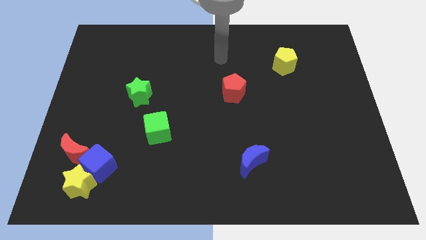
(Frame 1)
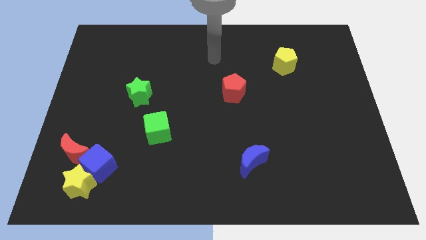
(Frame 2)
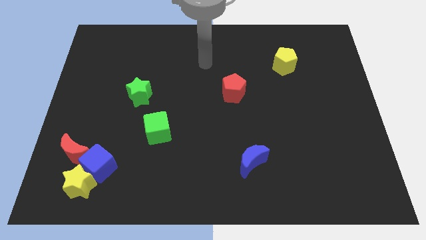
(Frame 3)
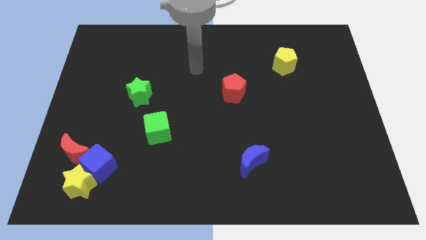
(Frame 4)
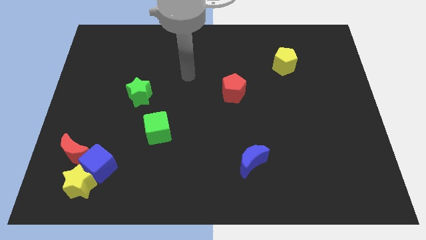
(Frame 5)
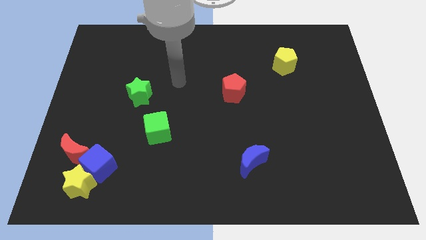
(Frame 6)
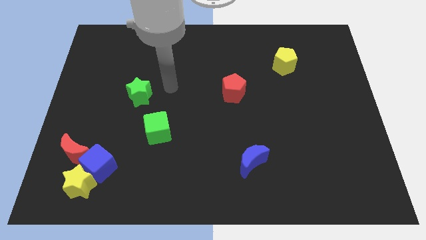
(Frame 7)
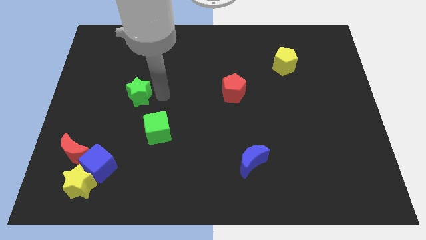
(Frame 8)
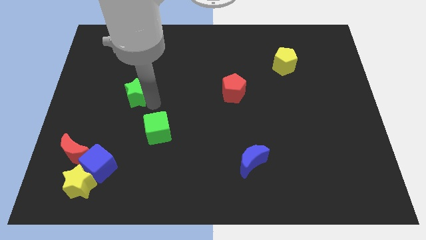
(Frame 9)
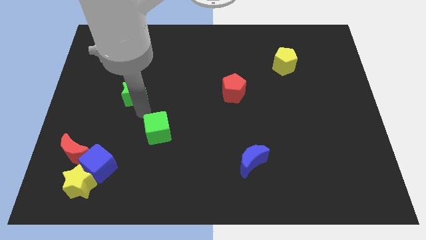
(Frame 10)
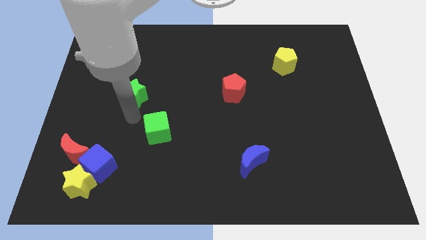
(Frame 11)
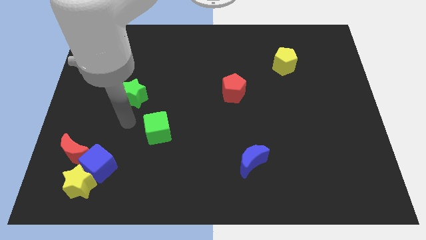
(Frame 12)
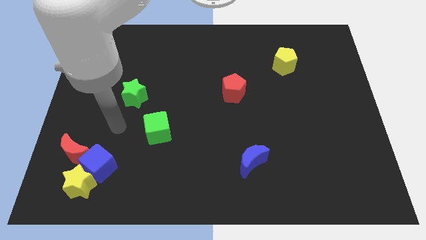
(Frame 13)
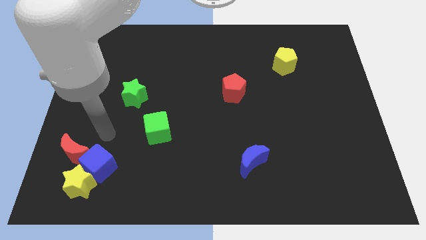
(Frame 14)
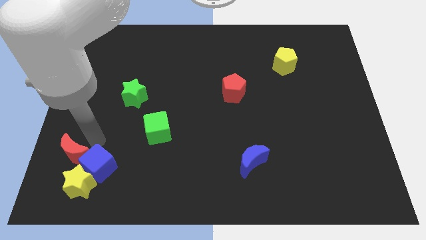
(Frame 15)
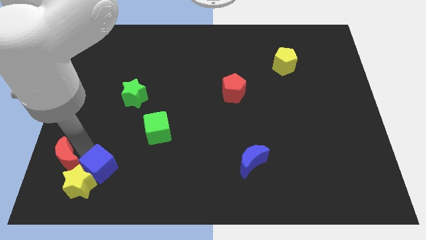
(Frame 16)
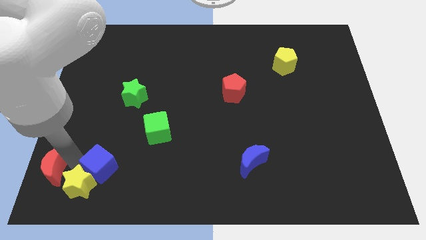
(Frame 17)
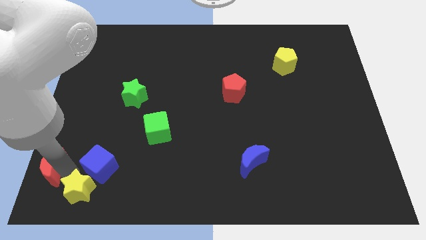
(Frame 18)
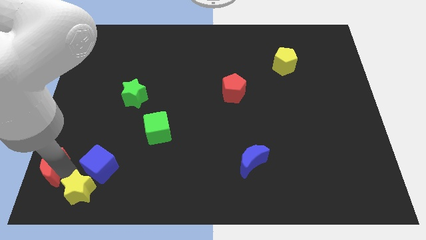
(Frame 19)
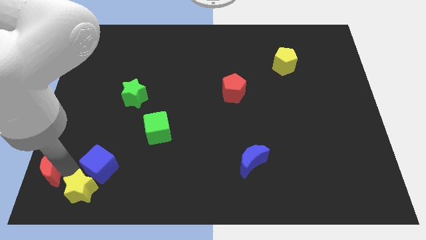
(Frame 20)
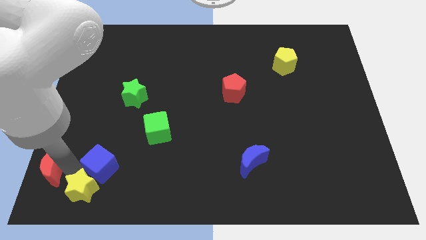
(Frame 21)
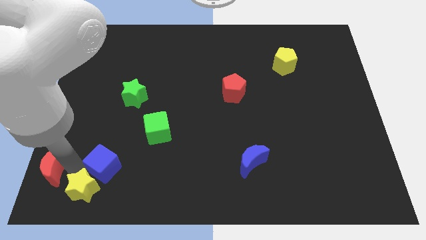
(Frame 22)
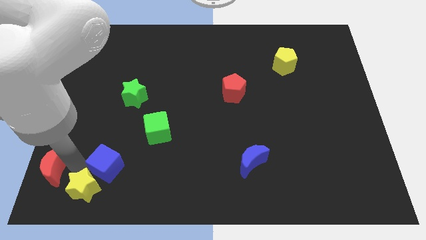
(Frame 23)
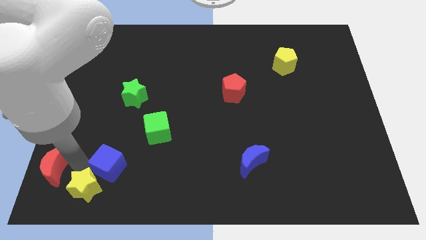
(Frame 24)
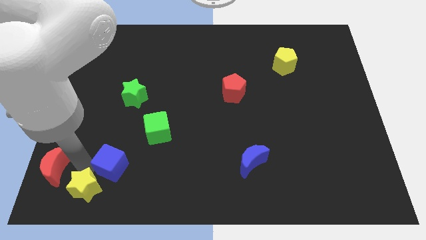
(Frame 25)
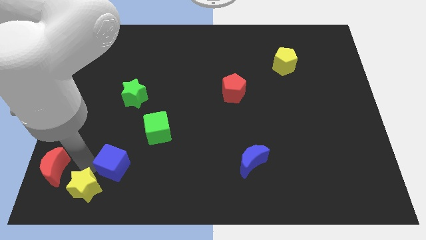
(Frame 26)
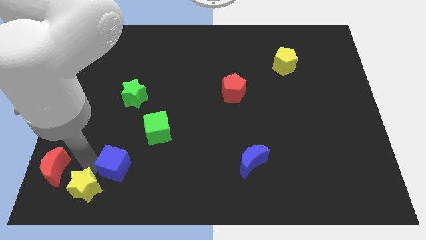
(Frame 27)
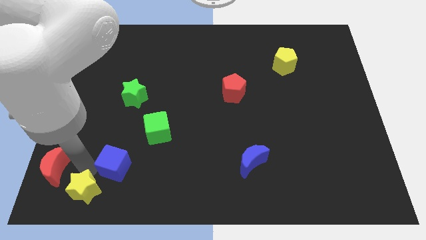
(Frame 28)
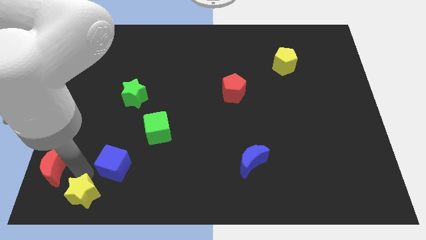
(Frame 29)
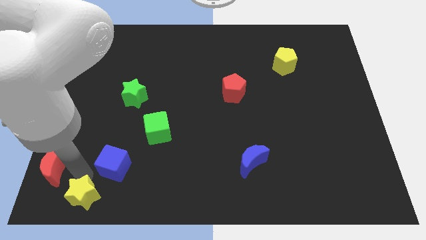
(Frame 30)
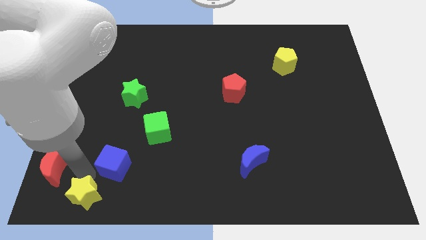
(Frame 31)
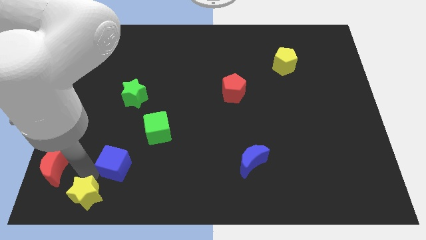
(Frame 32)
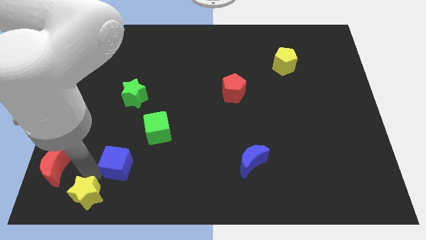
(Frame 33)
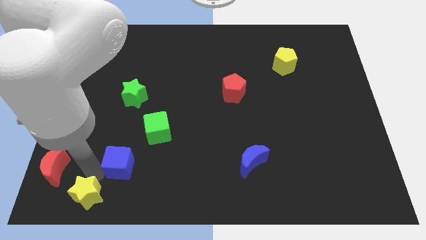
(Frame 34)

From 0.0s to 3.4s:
move the blue cube away from the yellow star and red moon

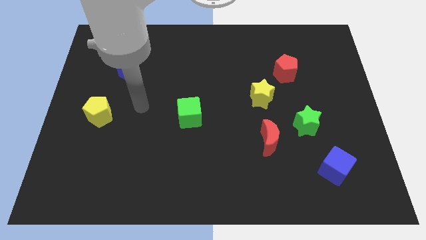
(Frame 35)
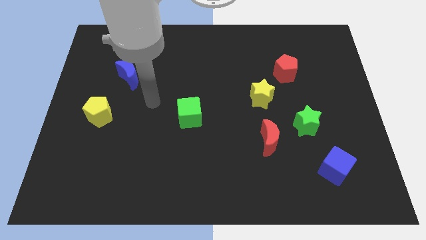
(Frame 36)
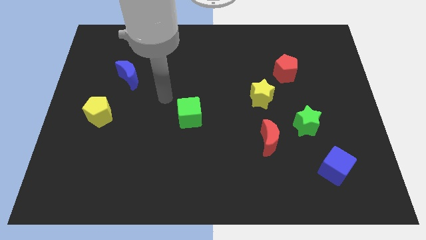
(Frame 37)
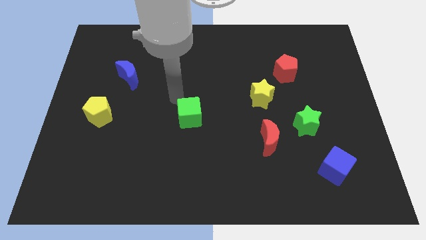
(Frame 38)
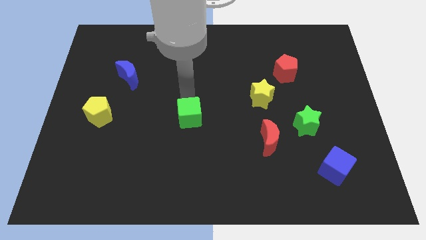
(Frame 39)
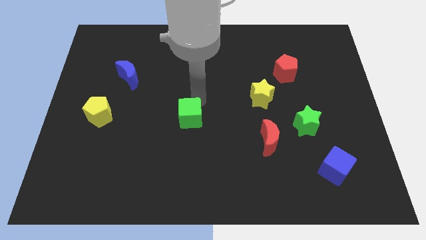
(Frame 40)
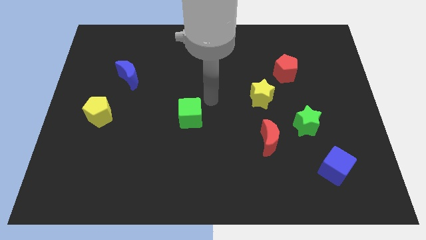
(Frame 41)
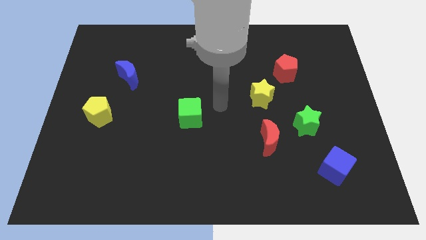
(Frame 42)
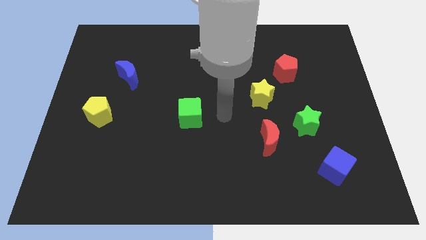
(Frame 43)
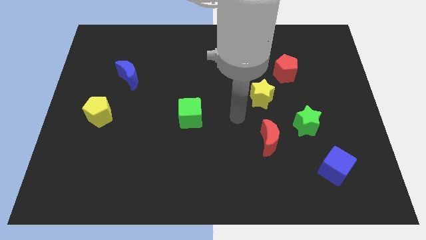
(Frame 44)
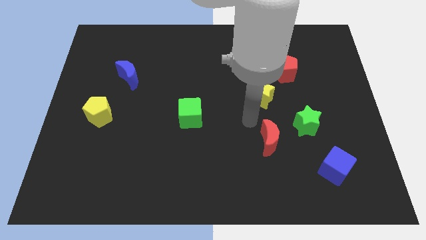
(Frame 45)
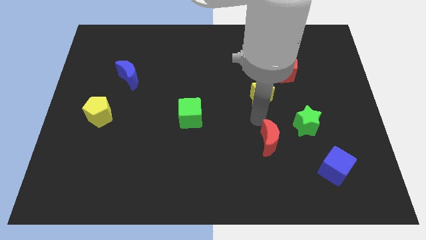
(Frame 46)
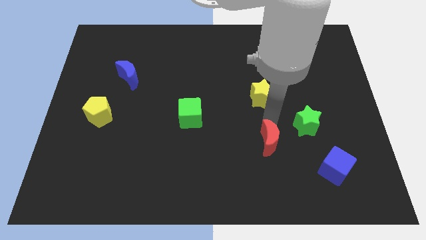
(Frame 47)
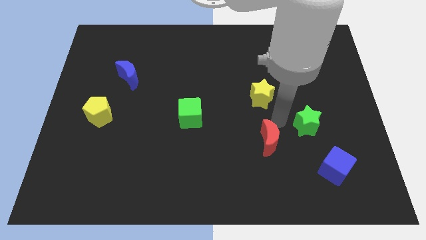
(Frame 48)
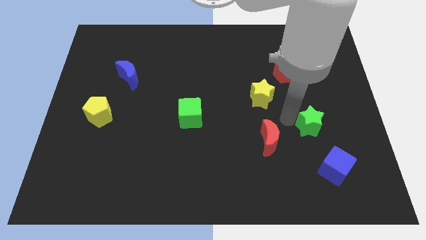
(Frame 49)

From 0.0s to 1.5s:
pull the red moon apart from the green star

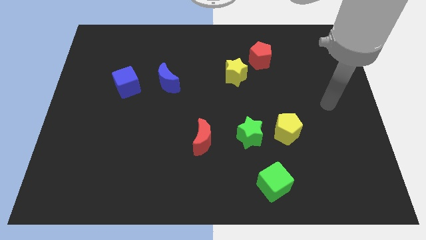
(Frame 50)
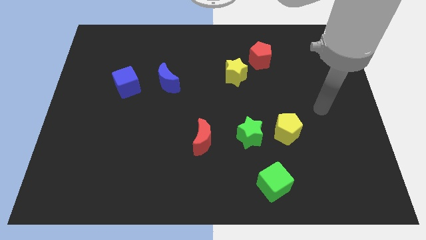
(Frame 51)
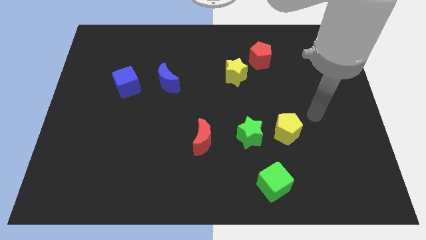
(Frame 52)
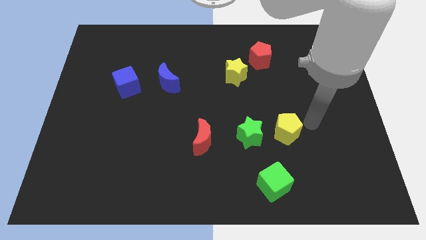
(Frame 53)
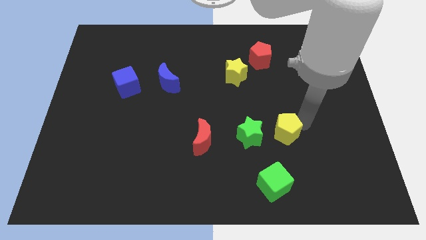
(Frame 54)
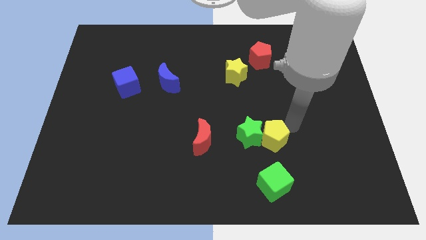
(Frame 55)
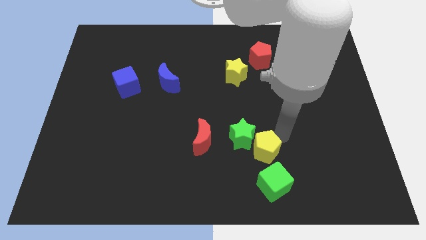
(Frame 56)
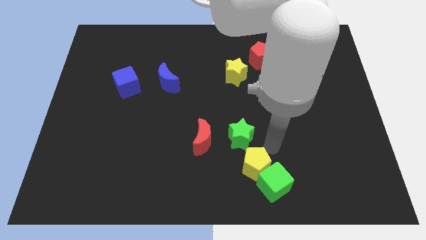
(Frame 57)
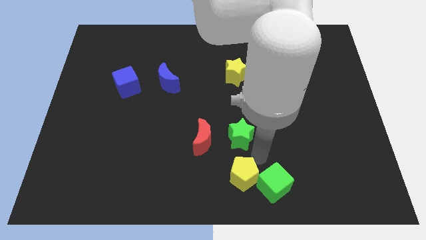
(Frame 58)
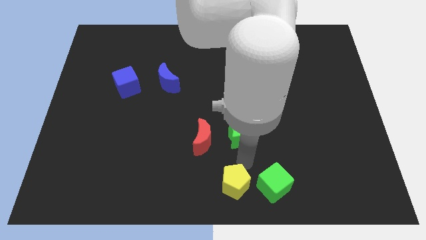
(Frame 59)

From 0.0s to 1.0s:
separate the green star from the yellow pentagon

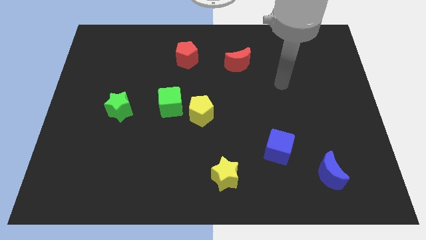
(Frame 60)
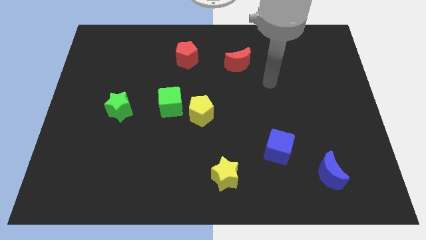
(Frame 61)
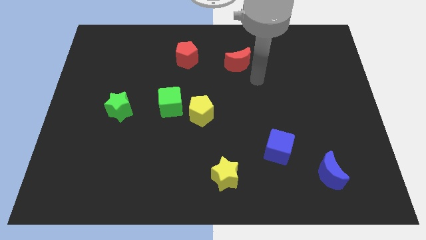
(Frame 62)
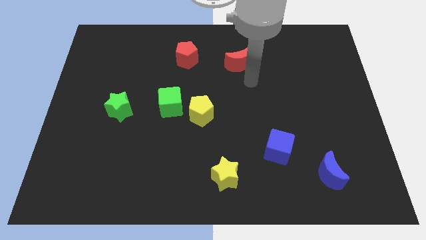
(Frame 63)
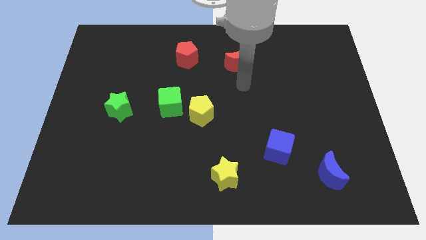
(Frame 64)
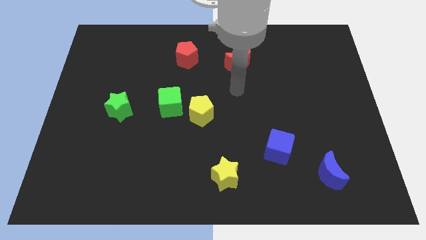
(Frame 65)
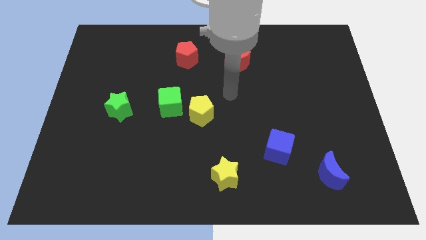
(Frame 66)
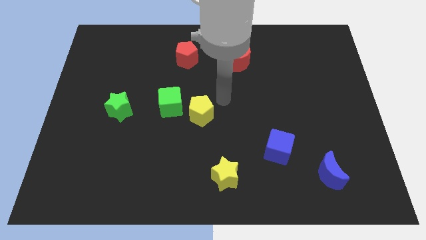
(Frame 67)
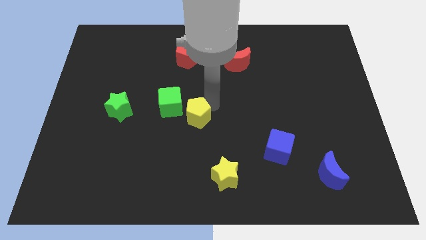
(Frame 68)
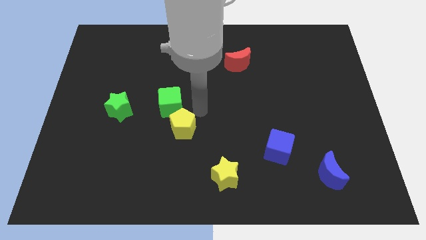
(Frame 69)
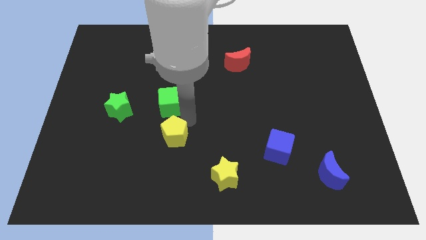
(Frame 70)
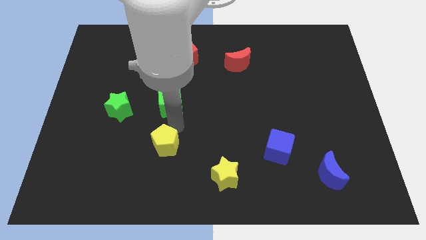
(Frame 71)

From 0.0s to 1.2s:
pull the green cube apart from the yellow pentagon

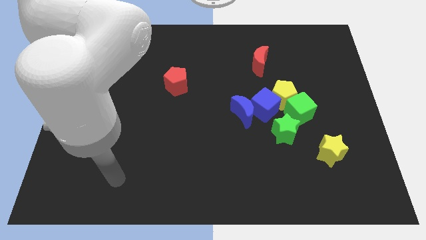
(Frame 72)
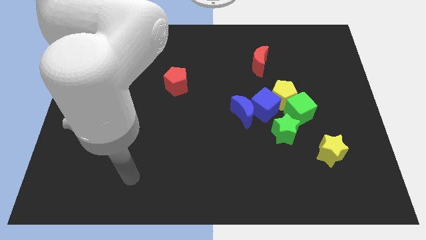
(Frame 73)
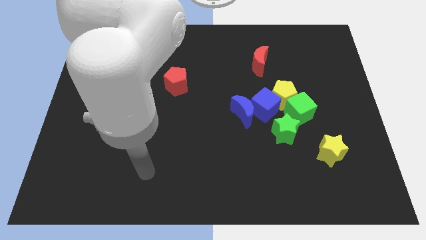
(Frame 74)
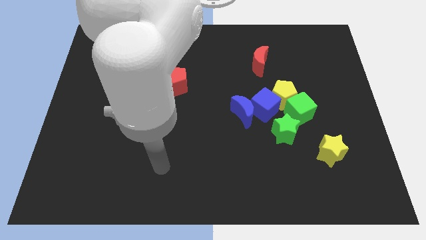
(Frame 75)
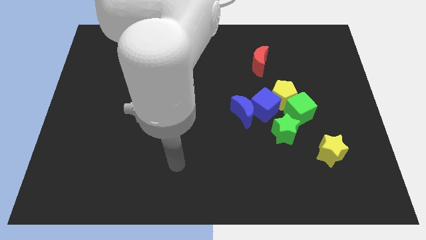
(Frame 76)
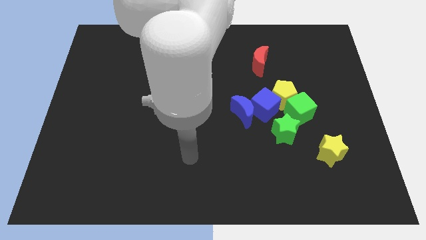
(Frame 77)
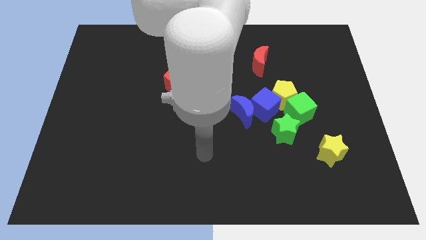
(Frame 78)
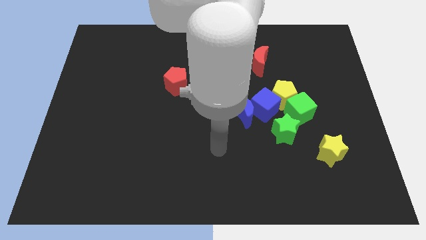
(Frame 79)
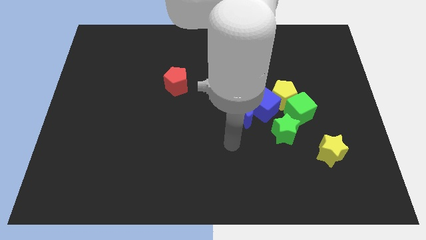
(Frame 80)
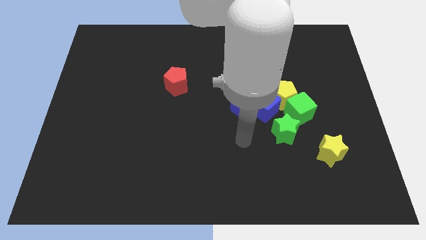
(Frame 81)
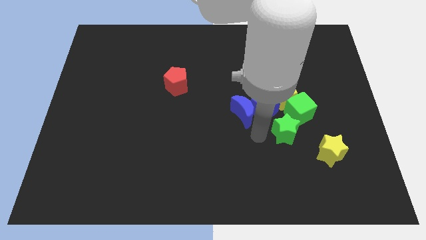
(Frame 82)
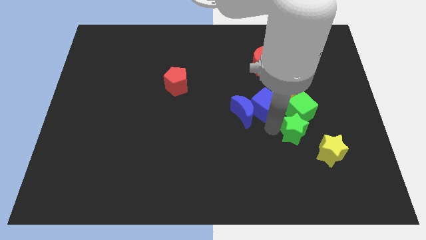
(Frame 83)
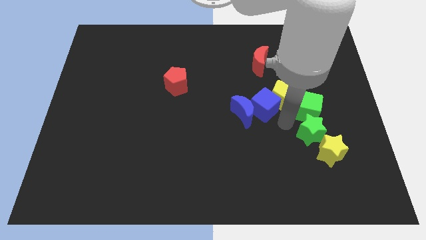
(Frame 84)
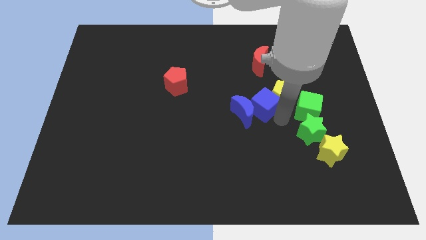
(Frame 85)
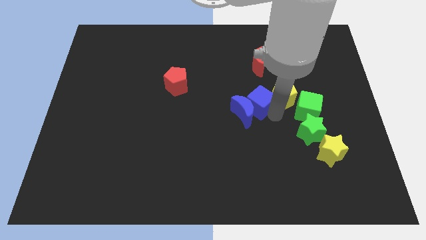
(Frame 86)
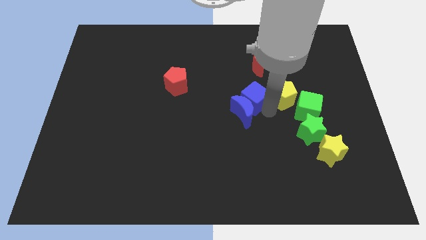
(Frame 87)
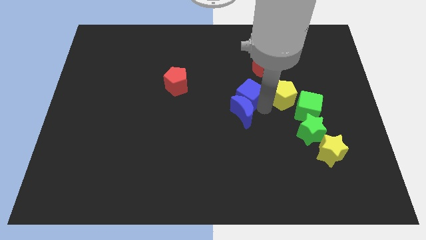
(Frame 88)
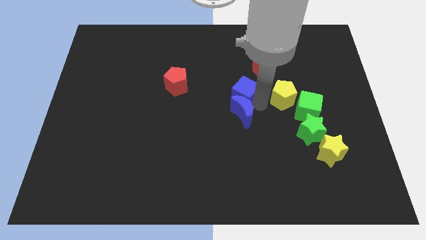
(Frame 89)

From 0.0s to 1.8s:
pull the blue cube apart from the clump
